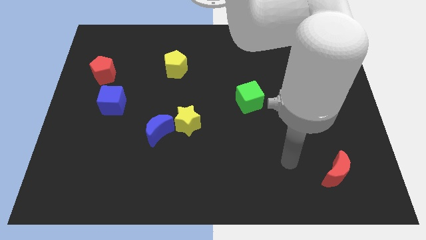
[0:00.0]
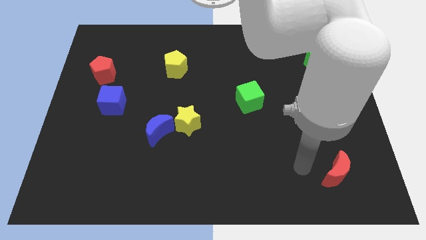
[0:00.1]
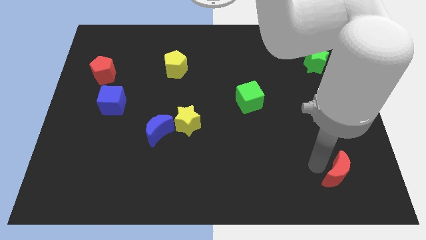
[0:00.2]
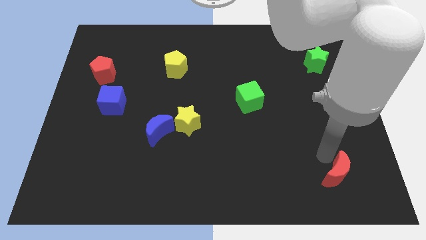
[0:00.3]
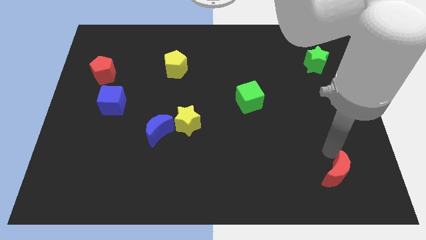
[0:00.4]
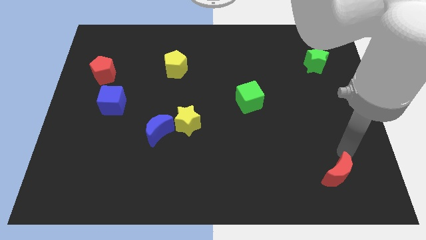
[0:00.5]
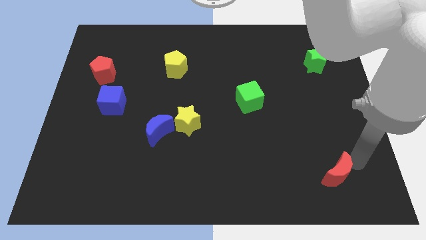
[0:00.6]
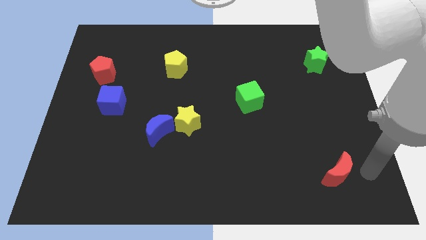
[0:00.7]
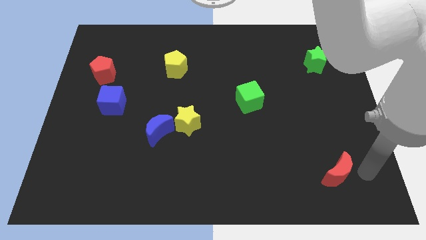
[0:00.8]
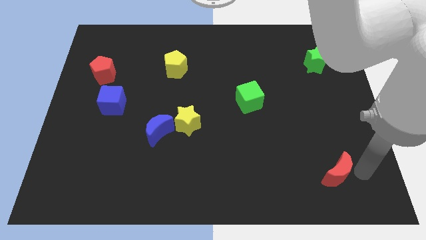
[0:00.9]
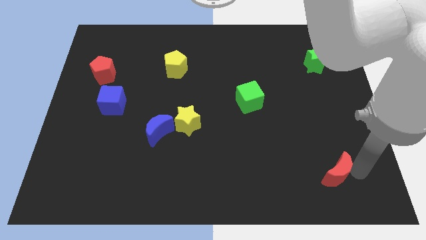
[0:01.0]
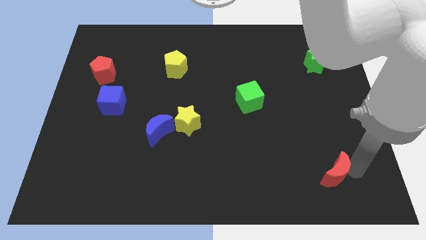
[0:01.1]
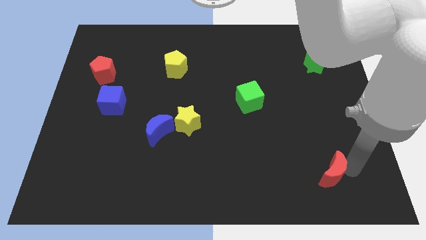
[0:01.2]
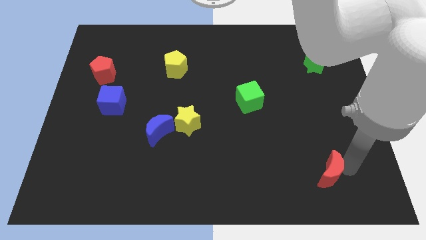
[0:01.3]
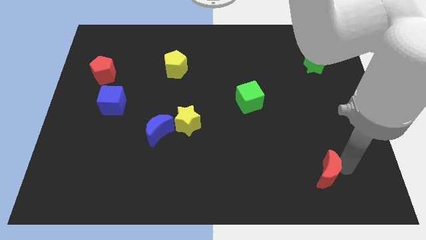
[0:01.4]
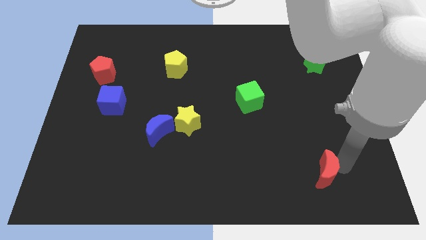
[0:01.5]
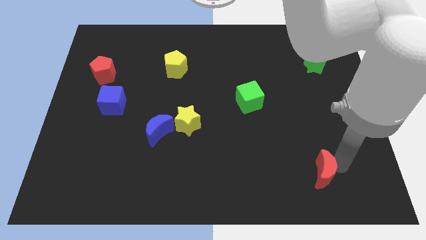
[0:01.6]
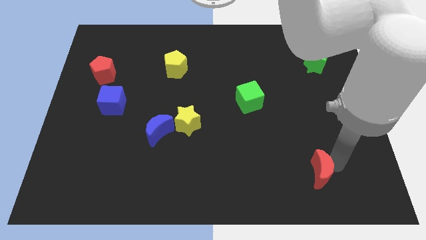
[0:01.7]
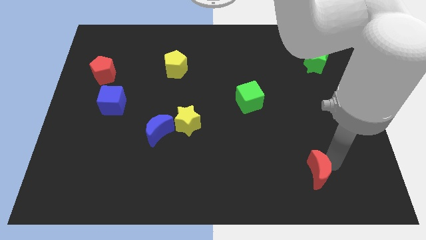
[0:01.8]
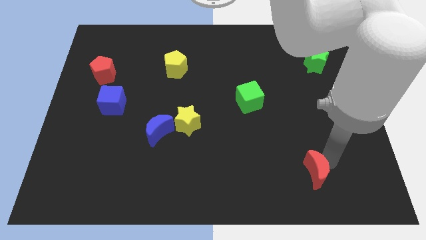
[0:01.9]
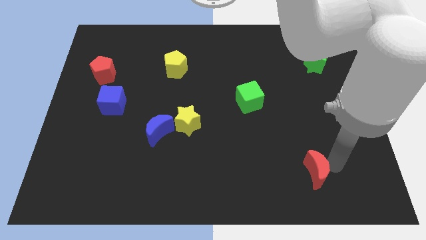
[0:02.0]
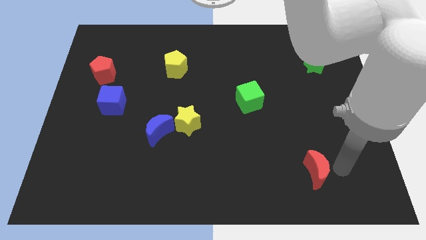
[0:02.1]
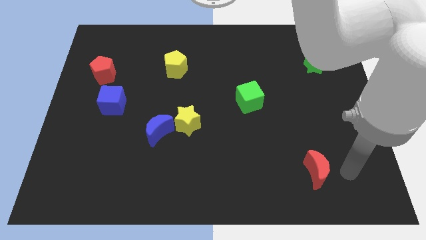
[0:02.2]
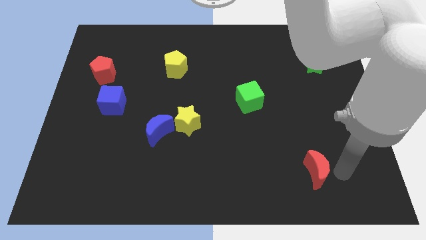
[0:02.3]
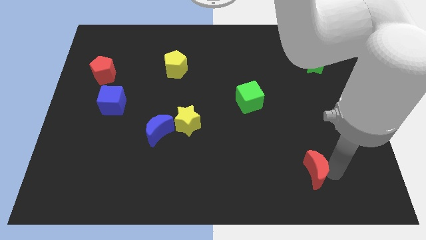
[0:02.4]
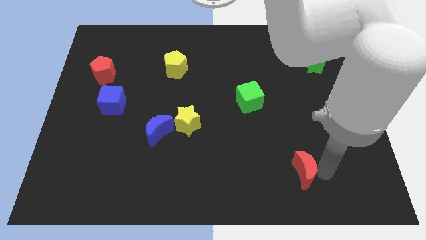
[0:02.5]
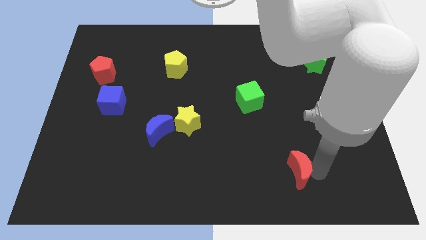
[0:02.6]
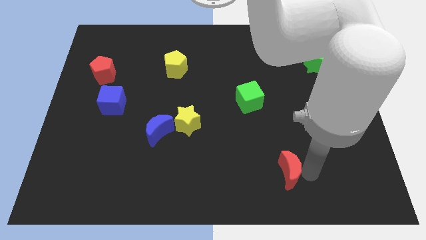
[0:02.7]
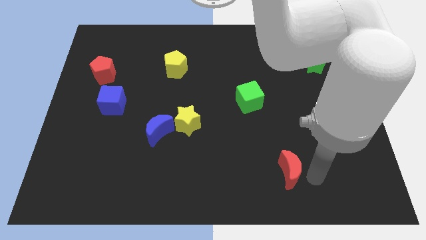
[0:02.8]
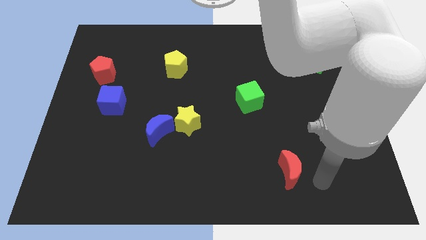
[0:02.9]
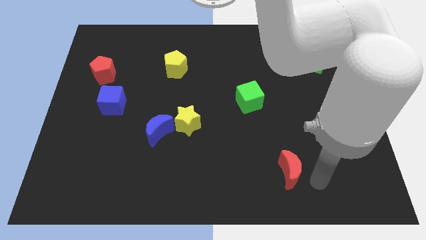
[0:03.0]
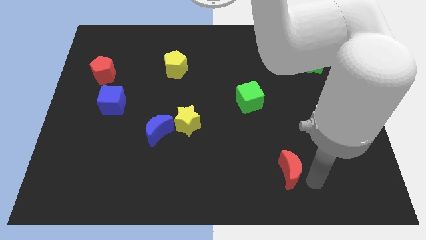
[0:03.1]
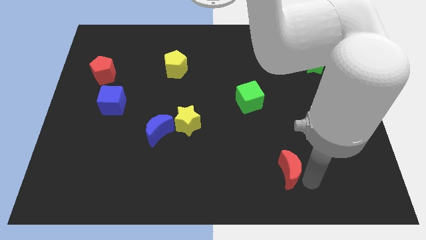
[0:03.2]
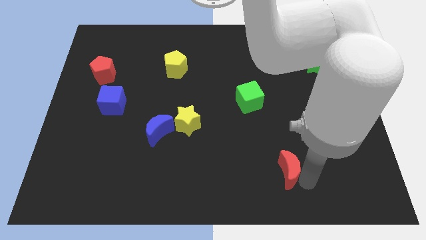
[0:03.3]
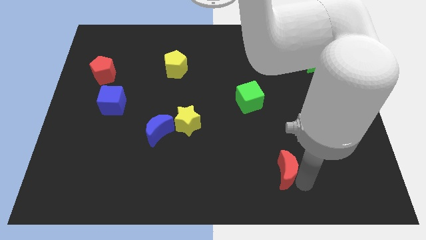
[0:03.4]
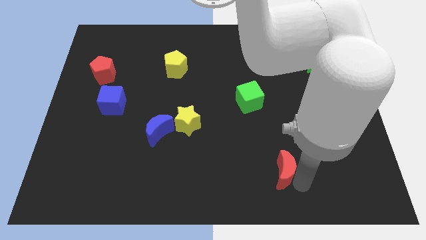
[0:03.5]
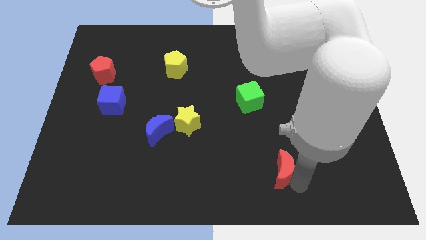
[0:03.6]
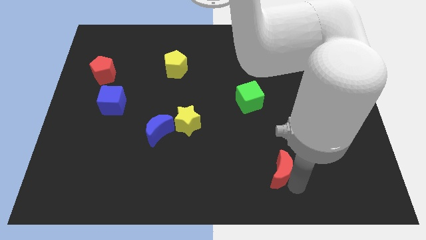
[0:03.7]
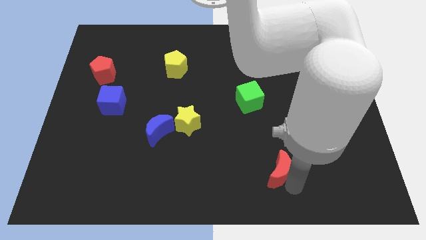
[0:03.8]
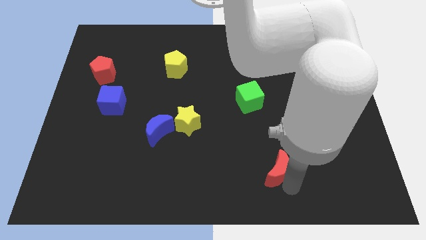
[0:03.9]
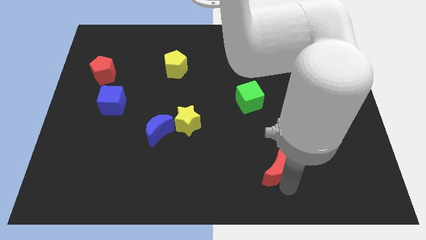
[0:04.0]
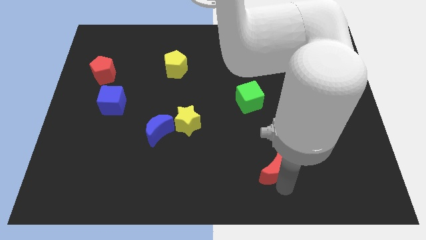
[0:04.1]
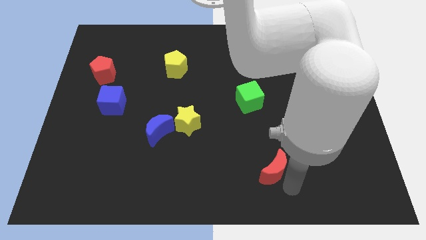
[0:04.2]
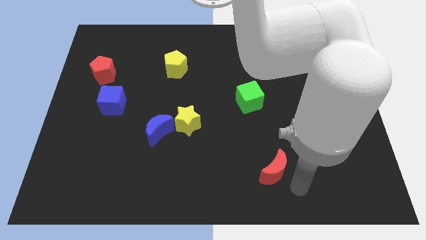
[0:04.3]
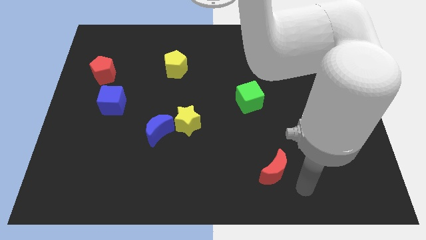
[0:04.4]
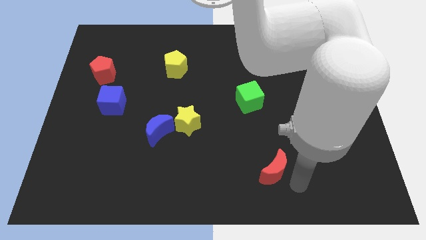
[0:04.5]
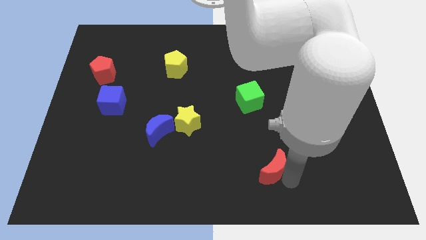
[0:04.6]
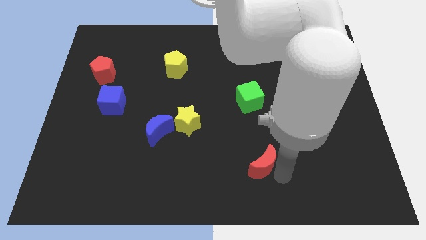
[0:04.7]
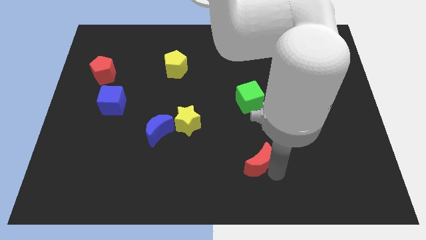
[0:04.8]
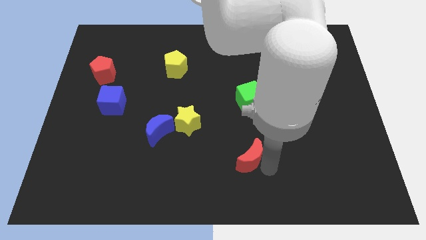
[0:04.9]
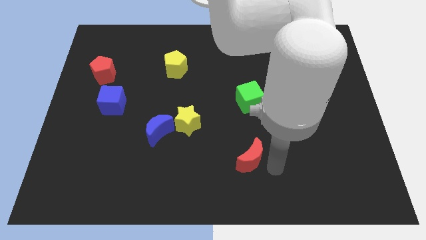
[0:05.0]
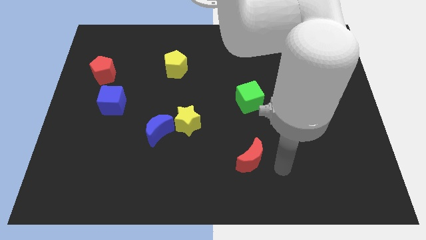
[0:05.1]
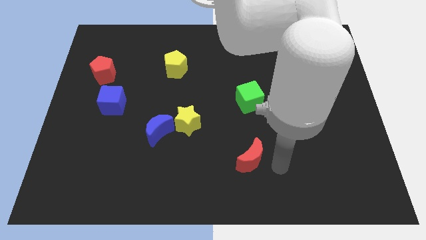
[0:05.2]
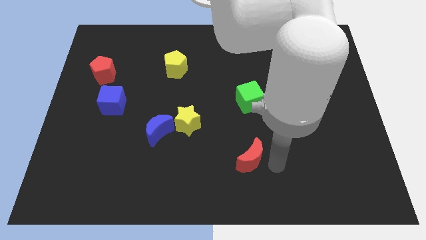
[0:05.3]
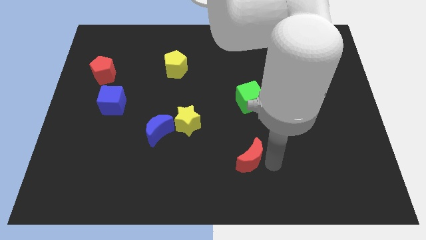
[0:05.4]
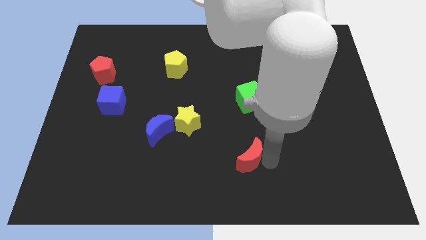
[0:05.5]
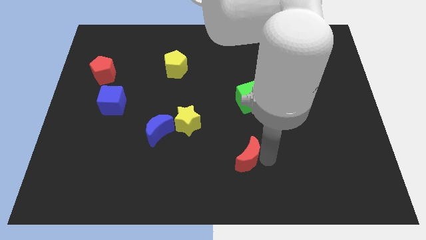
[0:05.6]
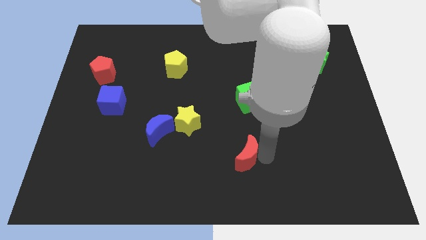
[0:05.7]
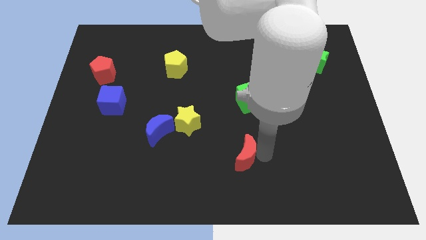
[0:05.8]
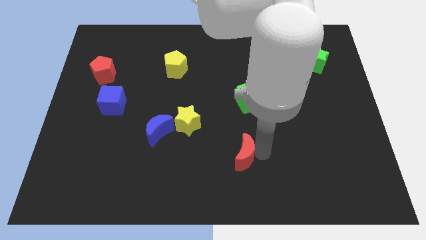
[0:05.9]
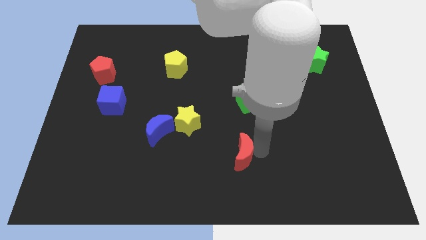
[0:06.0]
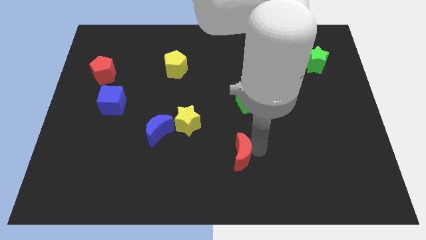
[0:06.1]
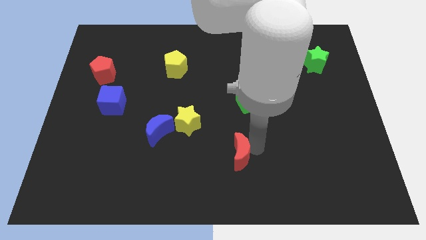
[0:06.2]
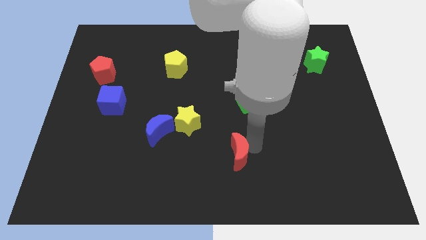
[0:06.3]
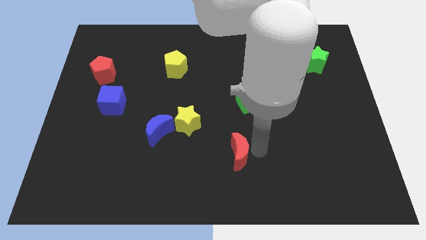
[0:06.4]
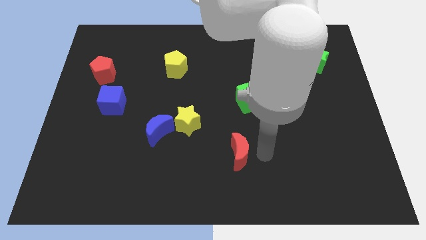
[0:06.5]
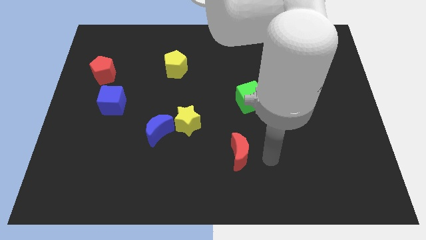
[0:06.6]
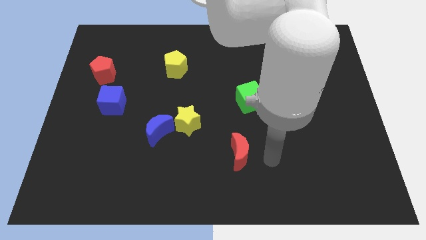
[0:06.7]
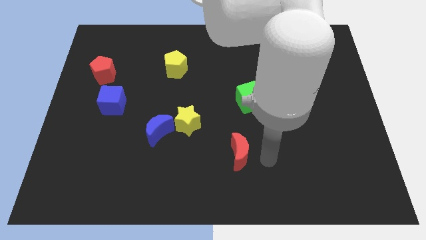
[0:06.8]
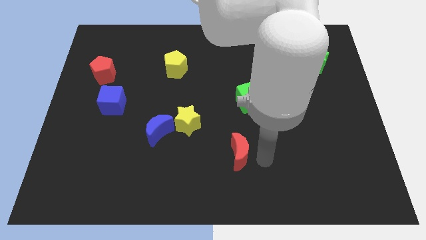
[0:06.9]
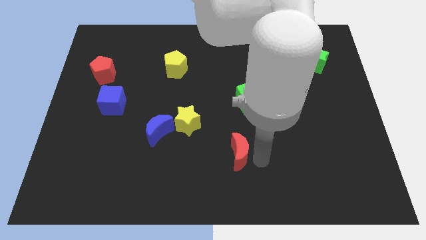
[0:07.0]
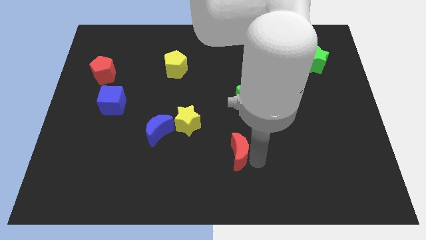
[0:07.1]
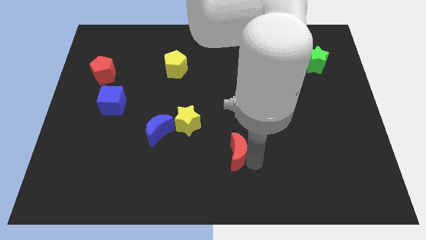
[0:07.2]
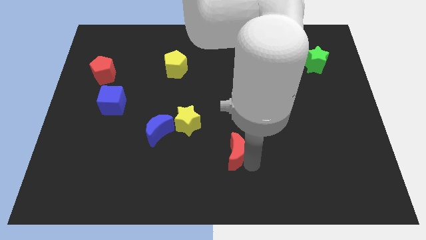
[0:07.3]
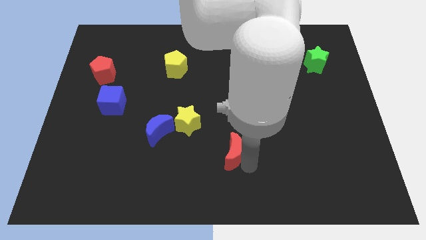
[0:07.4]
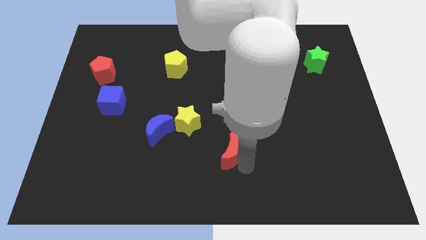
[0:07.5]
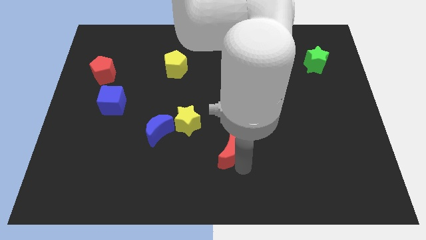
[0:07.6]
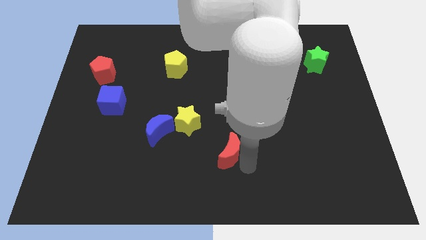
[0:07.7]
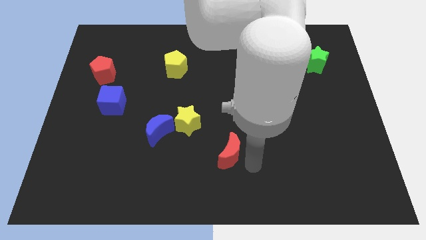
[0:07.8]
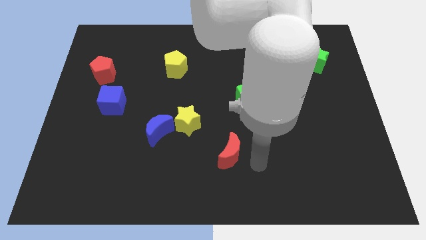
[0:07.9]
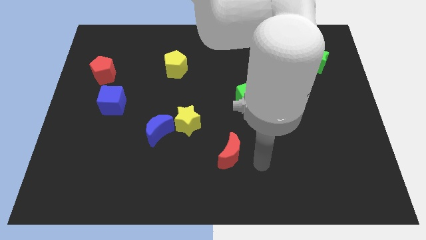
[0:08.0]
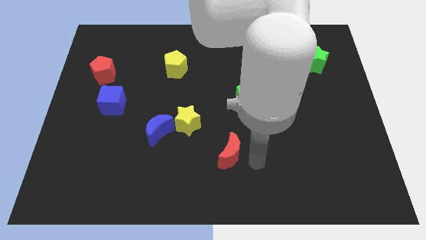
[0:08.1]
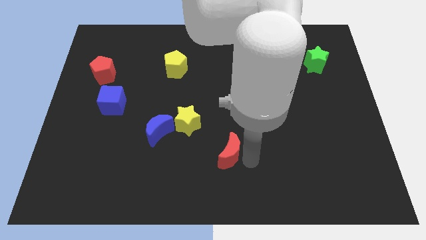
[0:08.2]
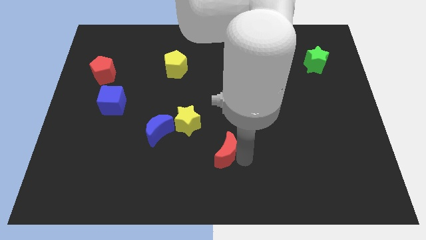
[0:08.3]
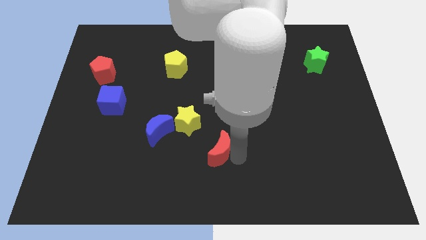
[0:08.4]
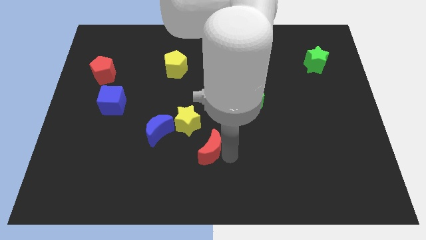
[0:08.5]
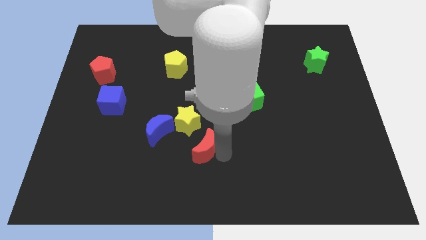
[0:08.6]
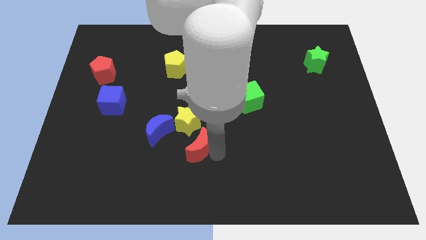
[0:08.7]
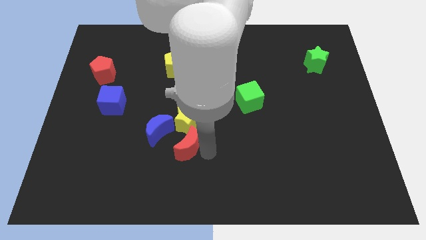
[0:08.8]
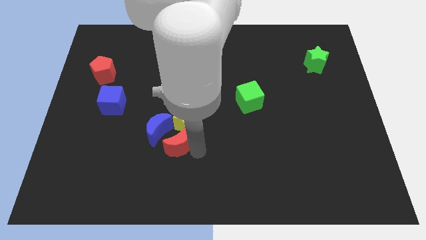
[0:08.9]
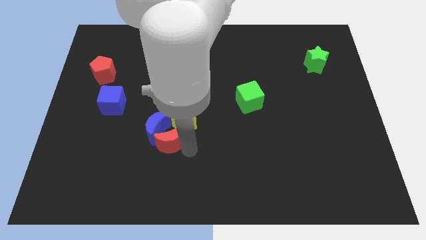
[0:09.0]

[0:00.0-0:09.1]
slide the red moon towards the blue moon
